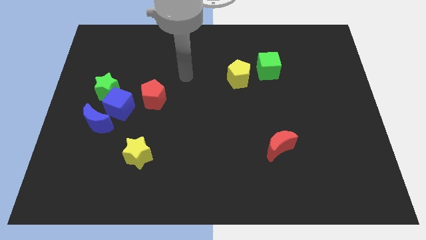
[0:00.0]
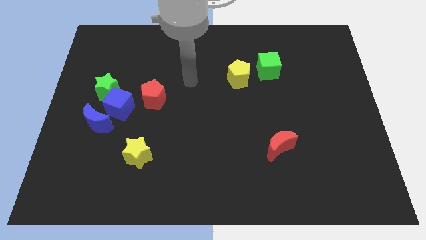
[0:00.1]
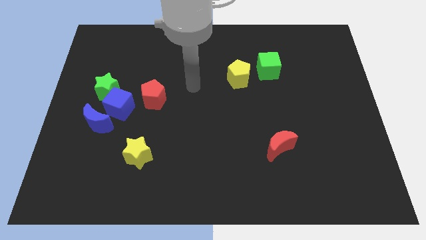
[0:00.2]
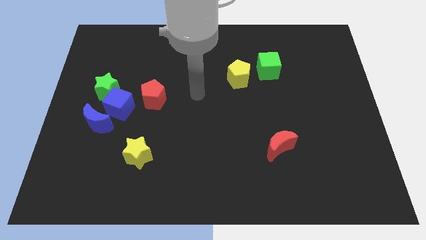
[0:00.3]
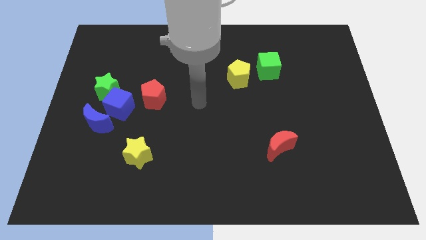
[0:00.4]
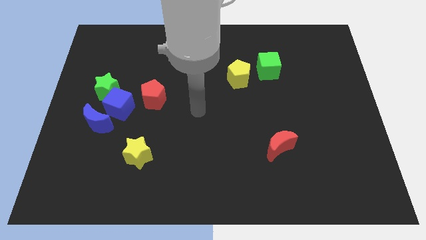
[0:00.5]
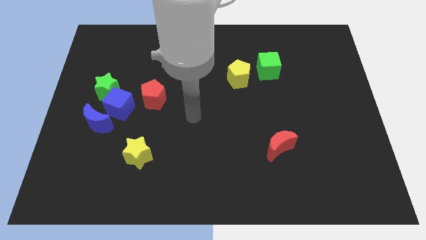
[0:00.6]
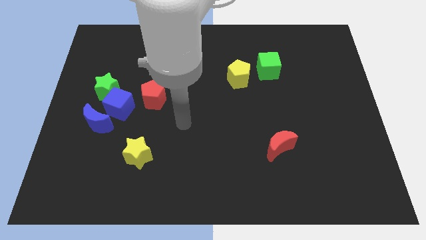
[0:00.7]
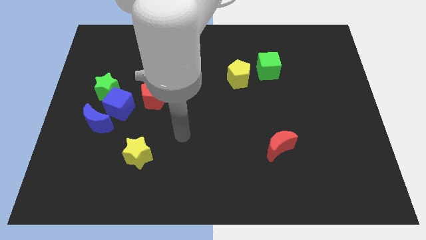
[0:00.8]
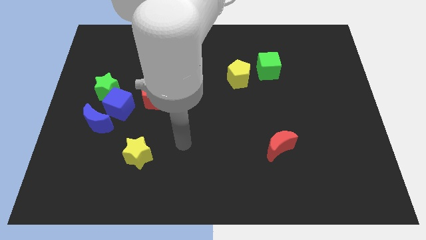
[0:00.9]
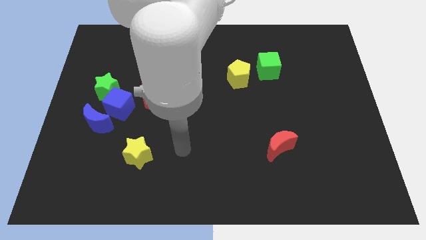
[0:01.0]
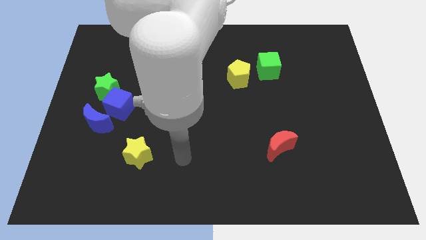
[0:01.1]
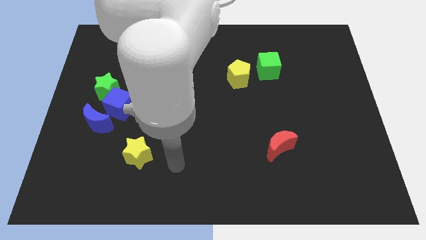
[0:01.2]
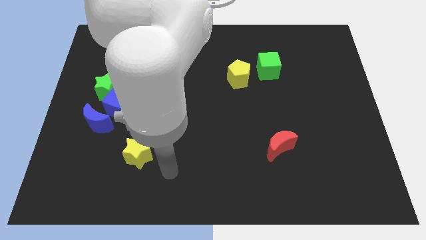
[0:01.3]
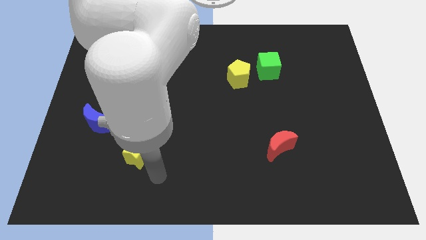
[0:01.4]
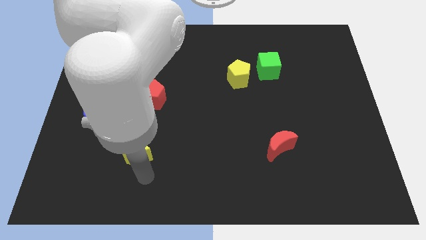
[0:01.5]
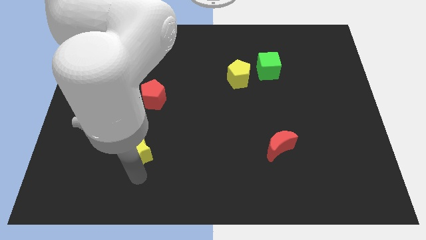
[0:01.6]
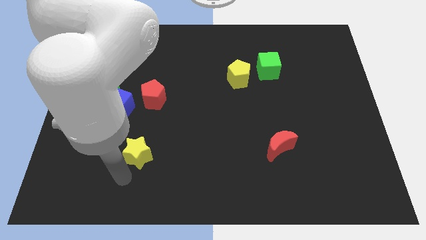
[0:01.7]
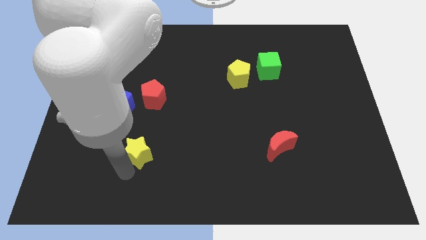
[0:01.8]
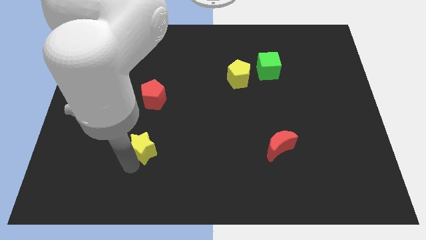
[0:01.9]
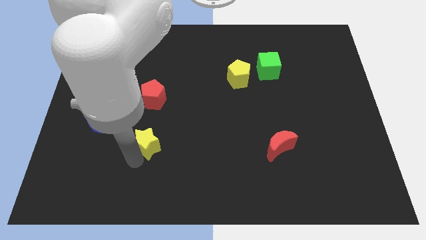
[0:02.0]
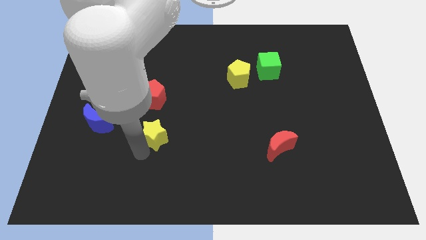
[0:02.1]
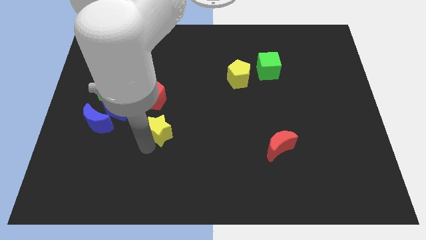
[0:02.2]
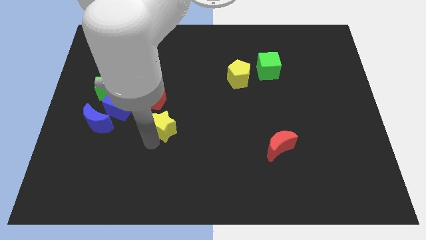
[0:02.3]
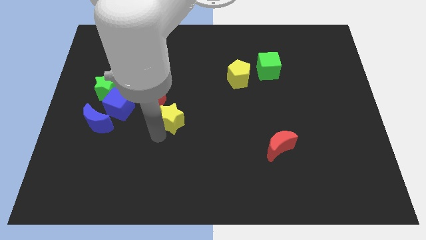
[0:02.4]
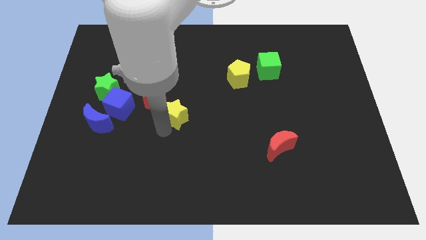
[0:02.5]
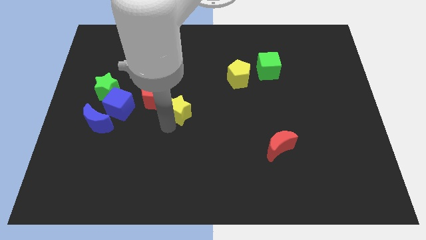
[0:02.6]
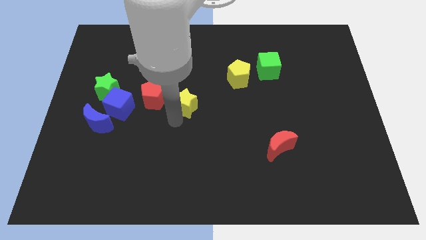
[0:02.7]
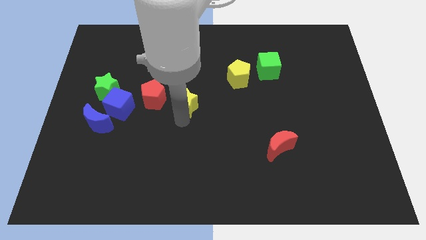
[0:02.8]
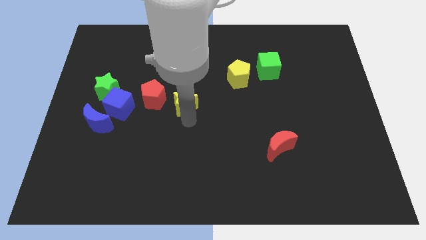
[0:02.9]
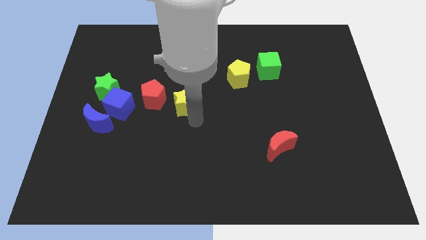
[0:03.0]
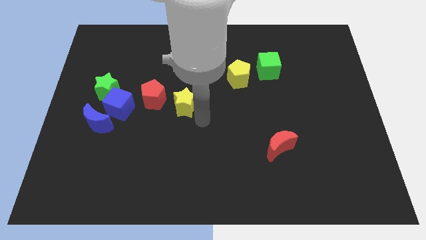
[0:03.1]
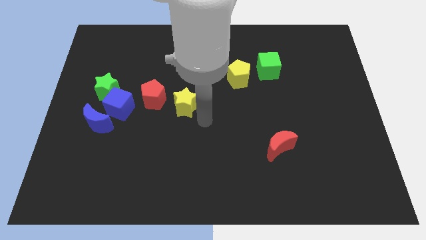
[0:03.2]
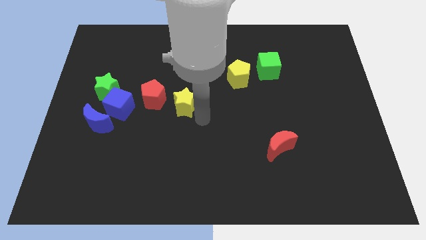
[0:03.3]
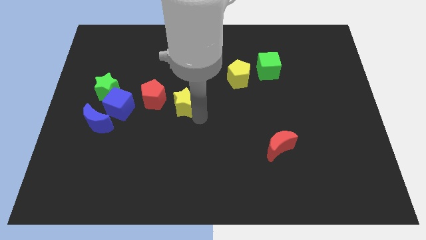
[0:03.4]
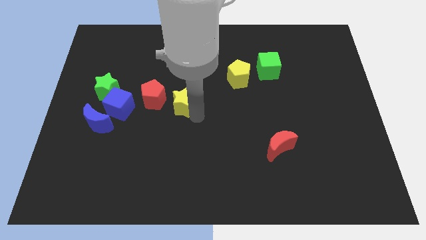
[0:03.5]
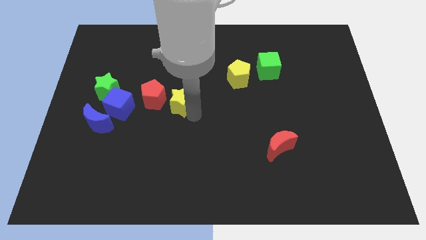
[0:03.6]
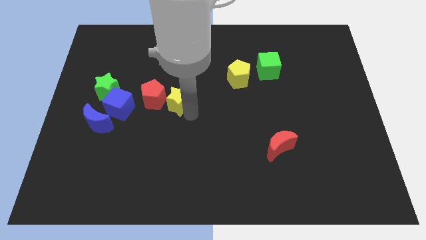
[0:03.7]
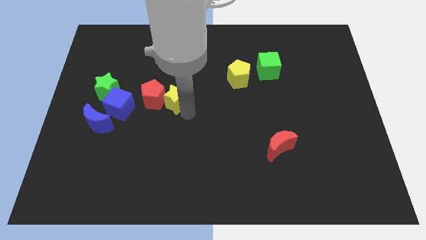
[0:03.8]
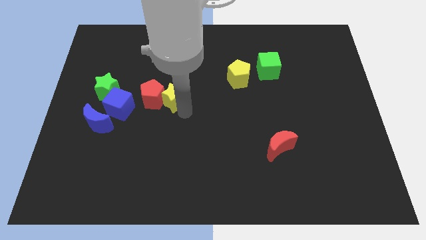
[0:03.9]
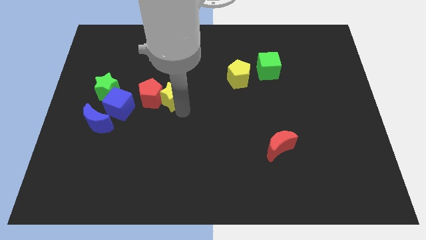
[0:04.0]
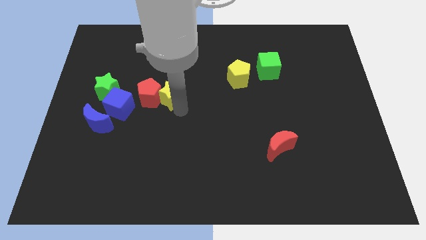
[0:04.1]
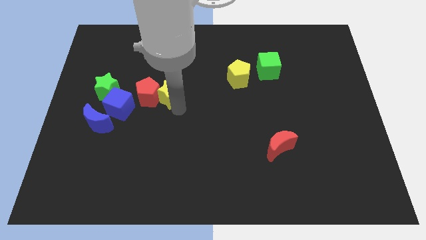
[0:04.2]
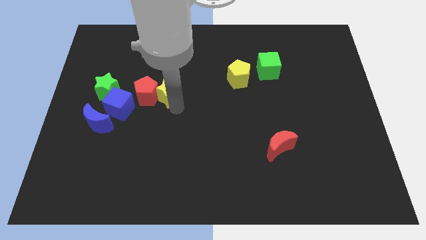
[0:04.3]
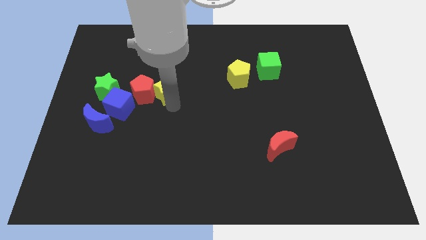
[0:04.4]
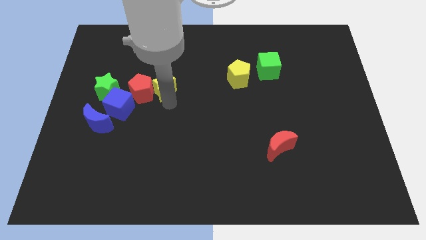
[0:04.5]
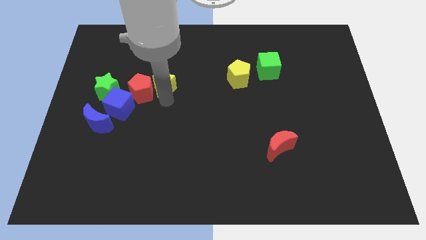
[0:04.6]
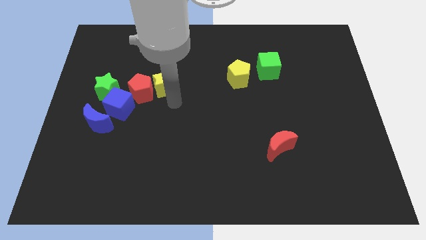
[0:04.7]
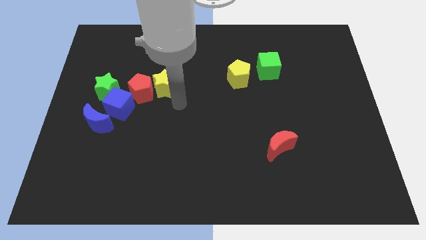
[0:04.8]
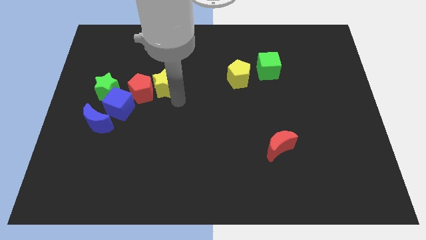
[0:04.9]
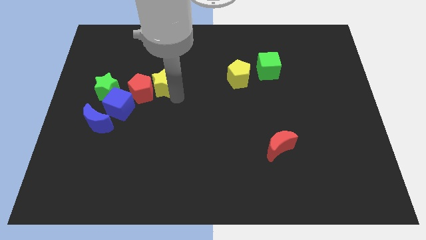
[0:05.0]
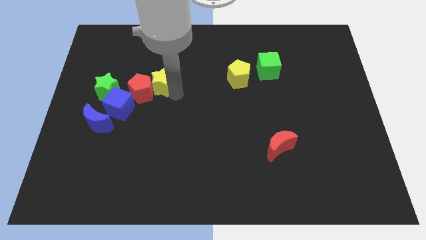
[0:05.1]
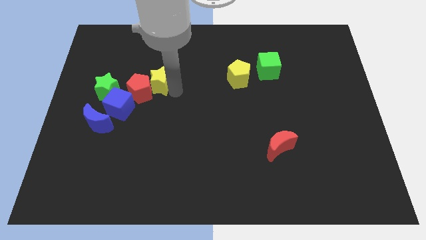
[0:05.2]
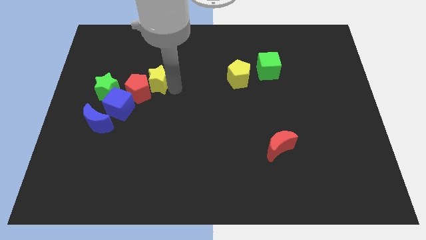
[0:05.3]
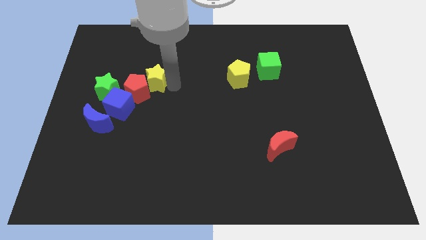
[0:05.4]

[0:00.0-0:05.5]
push the yellow star above the red pentagon
